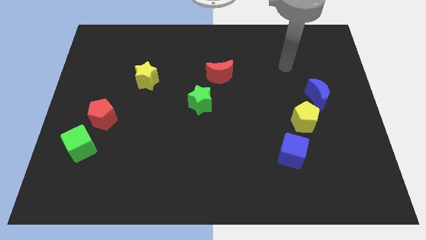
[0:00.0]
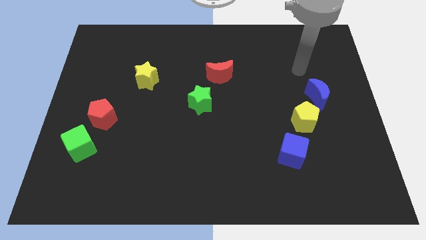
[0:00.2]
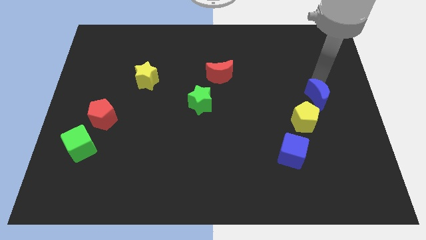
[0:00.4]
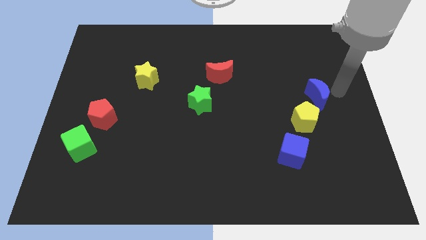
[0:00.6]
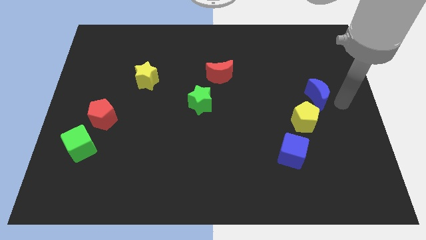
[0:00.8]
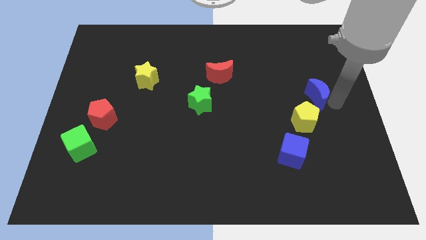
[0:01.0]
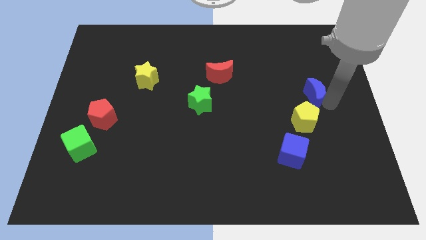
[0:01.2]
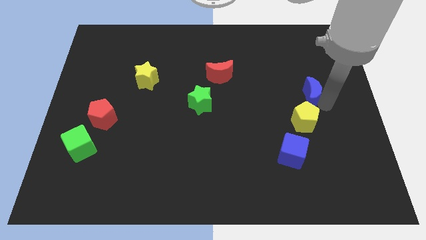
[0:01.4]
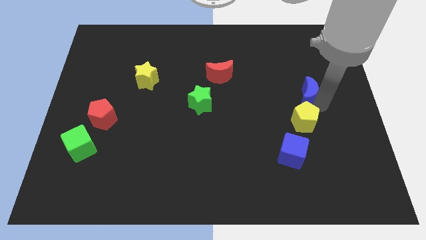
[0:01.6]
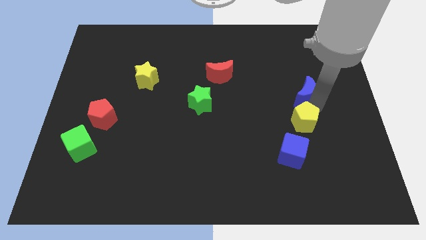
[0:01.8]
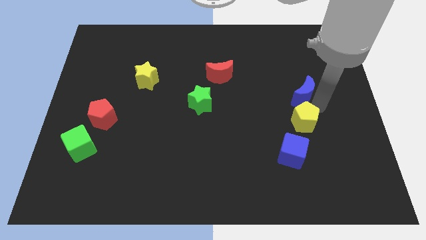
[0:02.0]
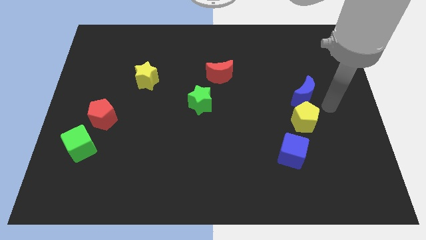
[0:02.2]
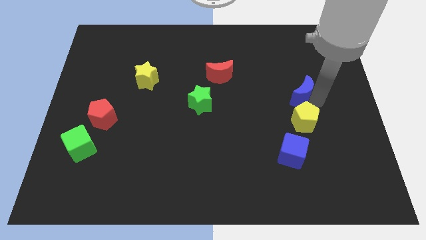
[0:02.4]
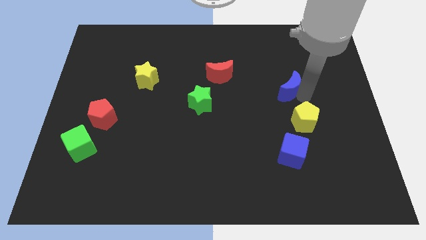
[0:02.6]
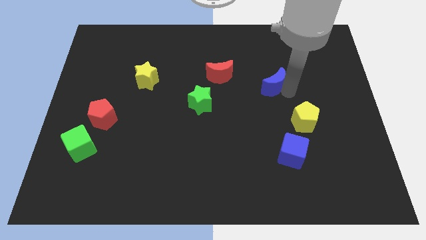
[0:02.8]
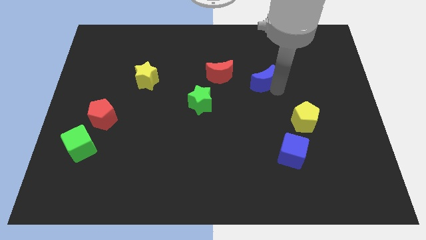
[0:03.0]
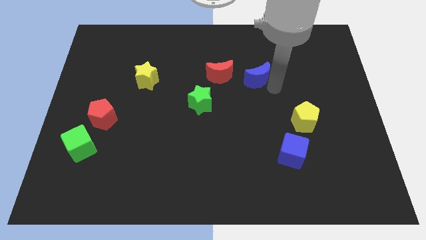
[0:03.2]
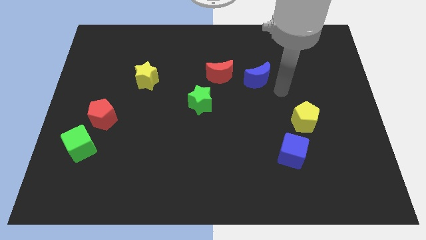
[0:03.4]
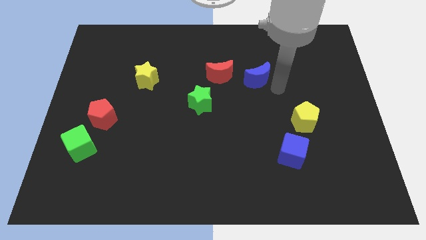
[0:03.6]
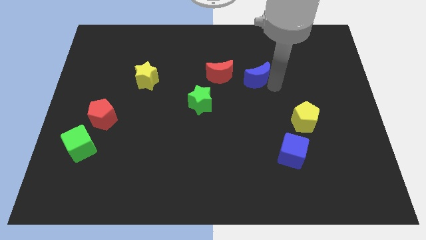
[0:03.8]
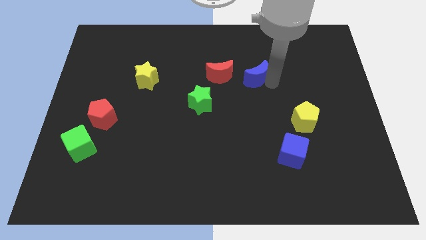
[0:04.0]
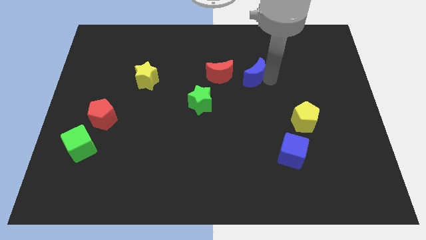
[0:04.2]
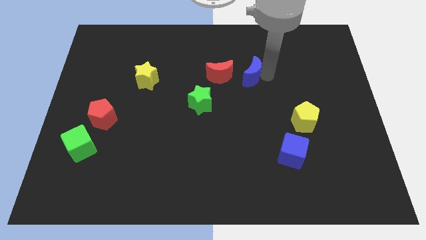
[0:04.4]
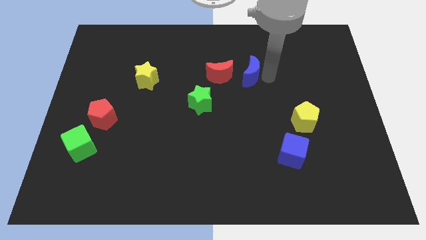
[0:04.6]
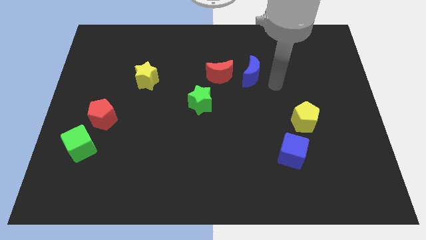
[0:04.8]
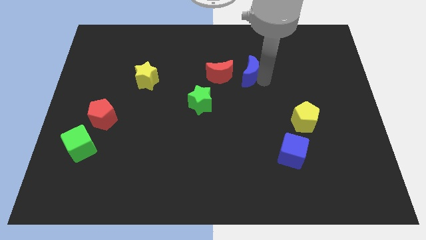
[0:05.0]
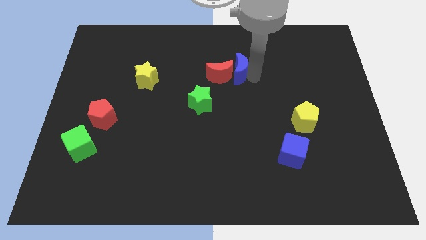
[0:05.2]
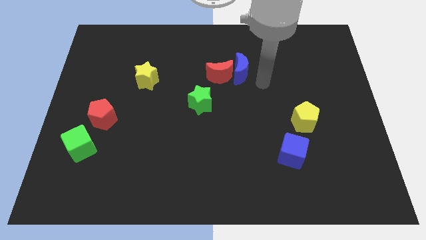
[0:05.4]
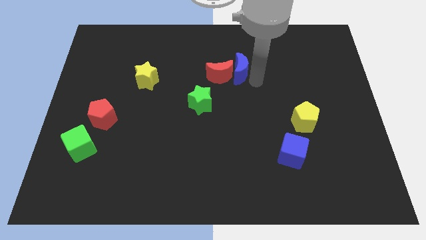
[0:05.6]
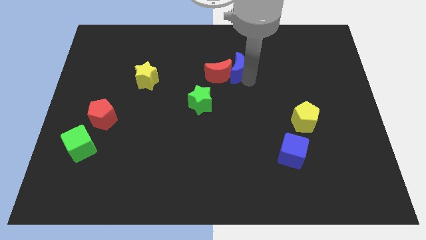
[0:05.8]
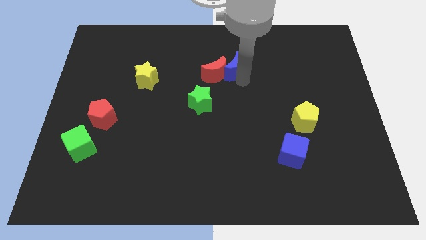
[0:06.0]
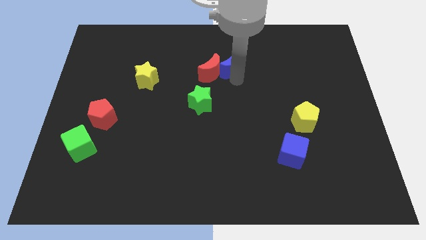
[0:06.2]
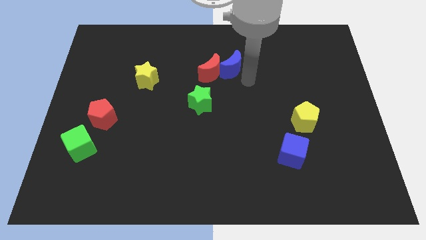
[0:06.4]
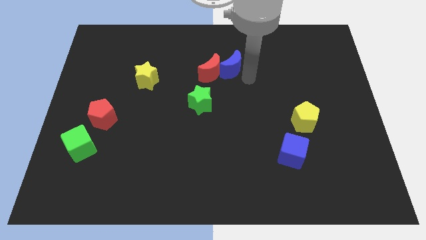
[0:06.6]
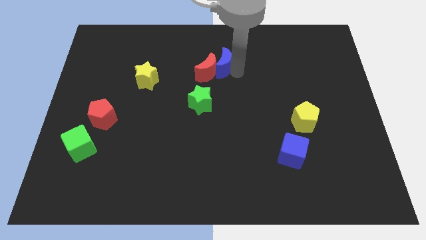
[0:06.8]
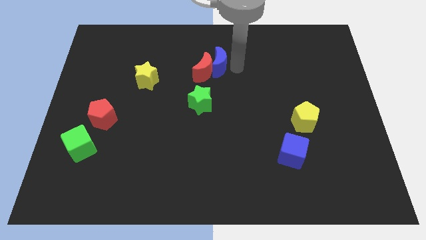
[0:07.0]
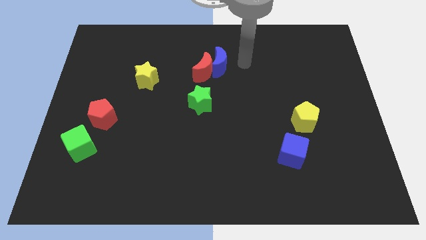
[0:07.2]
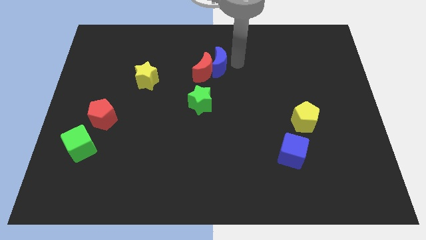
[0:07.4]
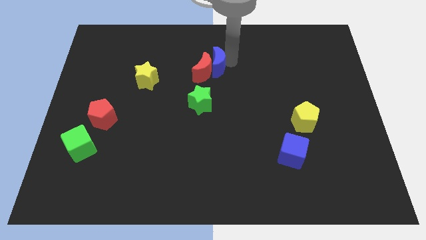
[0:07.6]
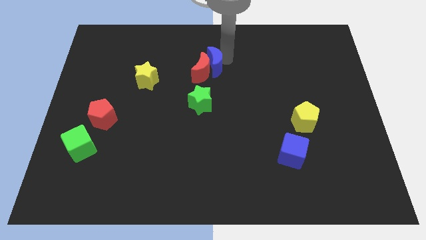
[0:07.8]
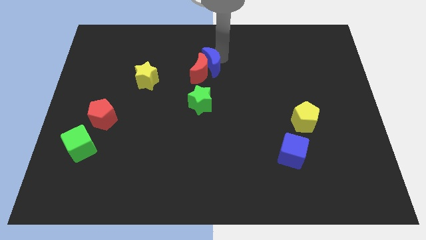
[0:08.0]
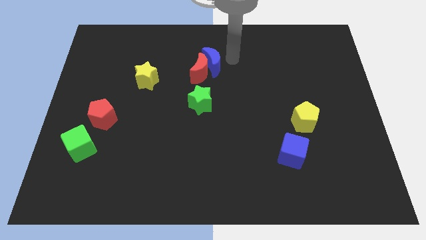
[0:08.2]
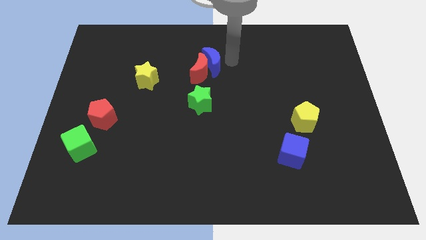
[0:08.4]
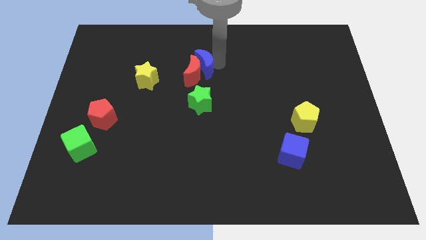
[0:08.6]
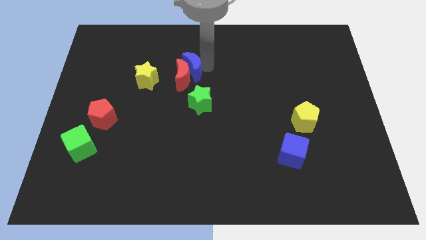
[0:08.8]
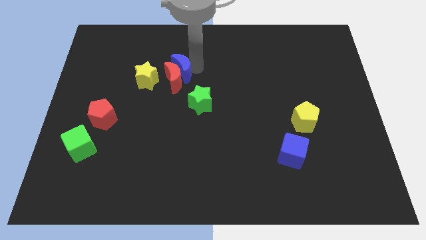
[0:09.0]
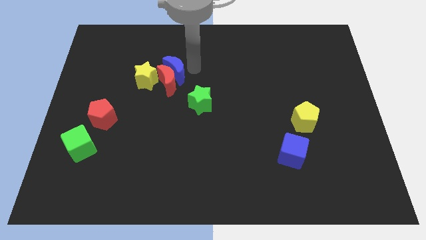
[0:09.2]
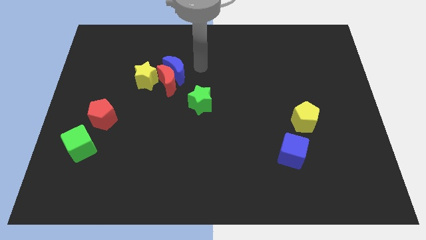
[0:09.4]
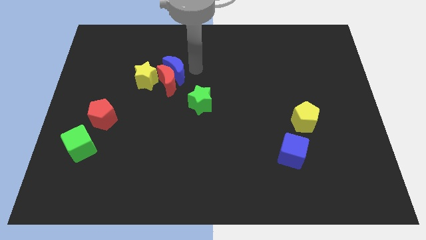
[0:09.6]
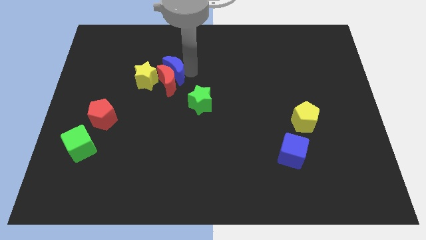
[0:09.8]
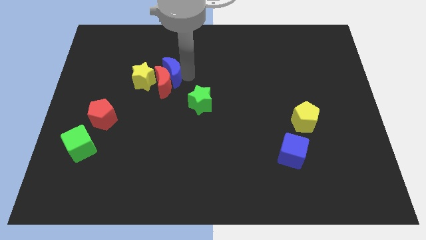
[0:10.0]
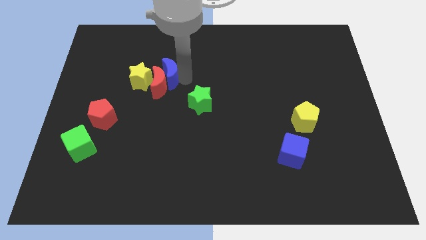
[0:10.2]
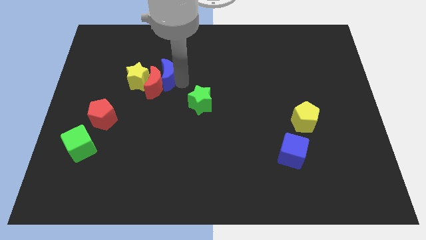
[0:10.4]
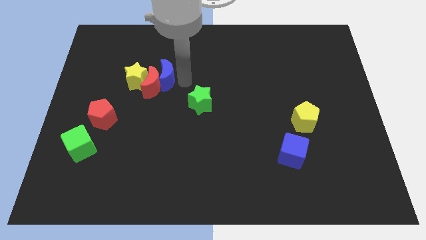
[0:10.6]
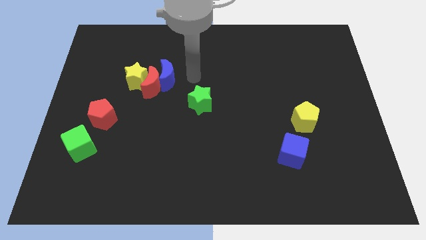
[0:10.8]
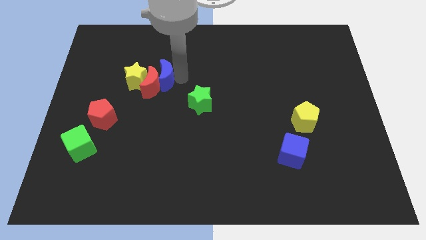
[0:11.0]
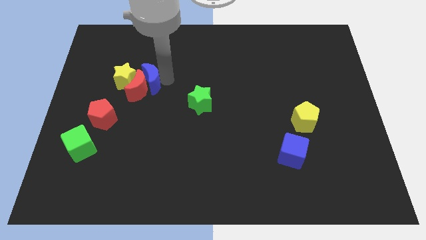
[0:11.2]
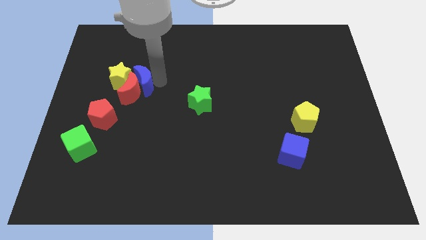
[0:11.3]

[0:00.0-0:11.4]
push the blue moon close to the yellow star

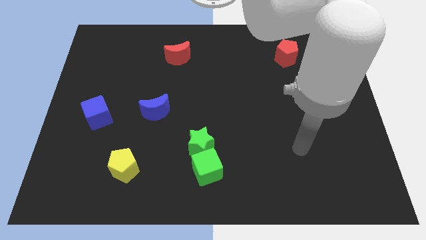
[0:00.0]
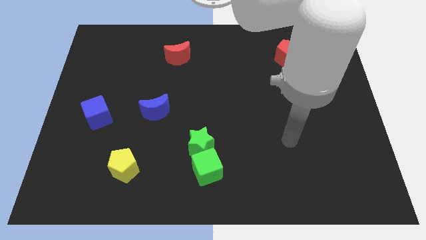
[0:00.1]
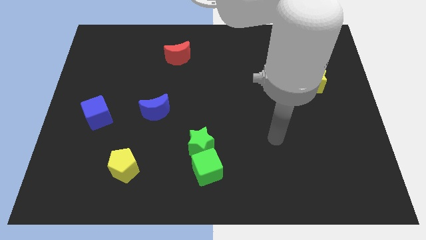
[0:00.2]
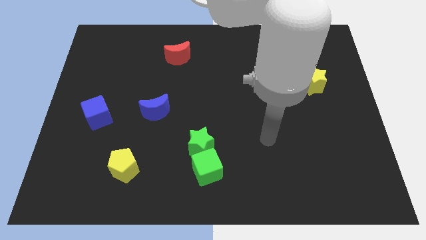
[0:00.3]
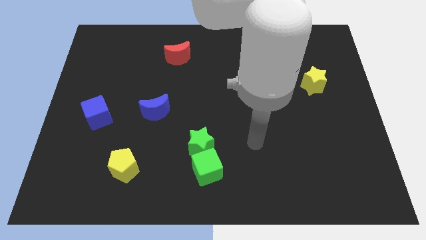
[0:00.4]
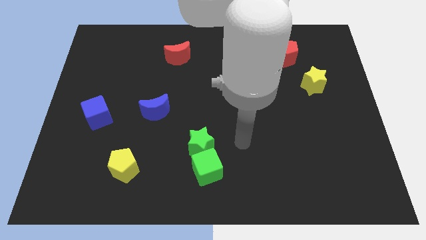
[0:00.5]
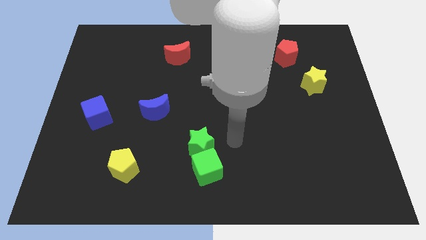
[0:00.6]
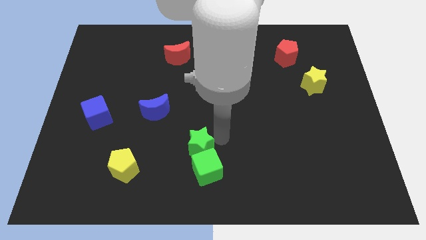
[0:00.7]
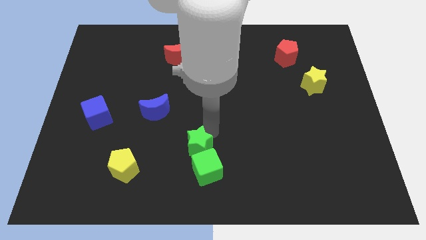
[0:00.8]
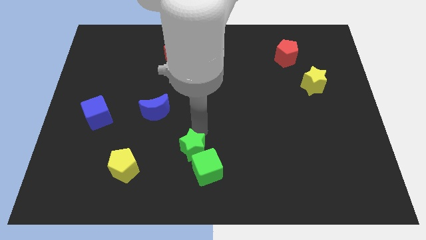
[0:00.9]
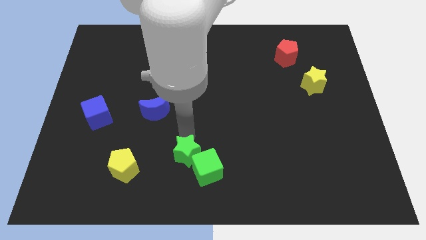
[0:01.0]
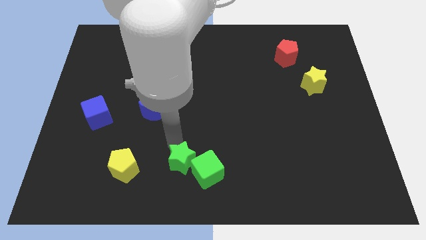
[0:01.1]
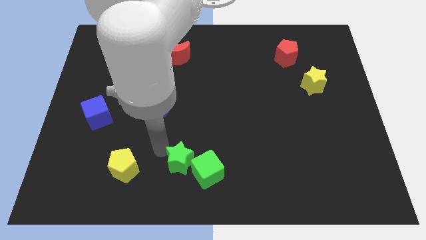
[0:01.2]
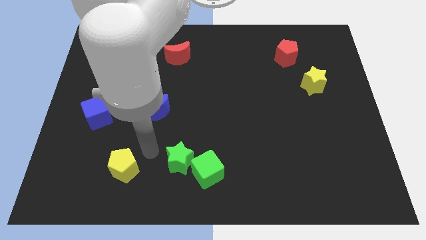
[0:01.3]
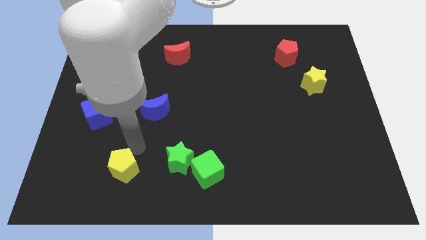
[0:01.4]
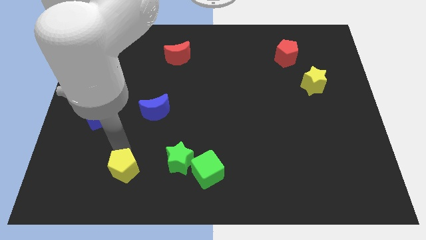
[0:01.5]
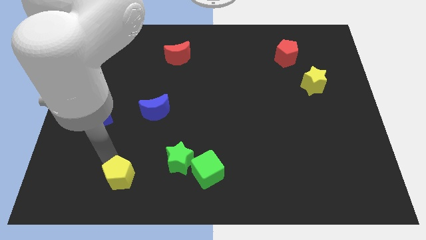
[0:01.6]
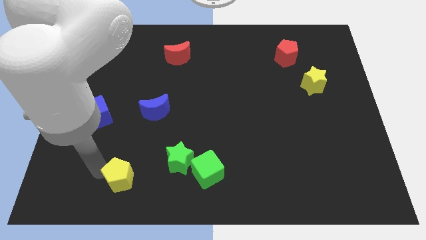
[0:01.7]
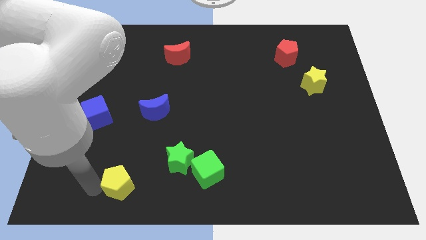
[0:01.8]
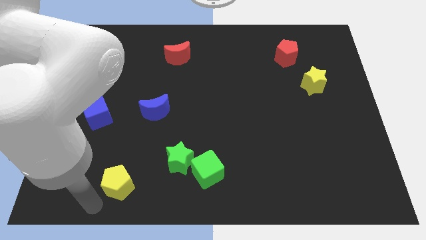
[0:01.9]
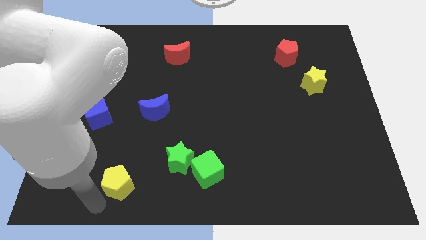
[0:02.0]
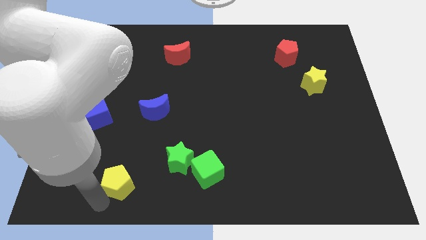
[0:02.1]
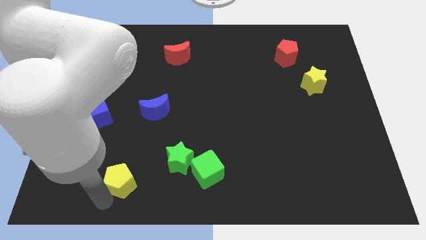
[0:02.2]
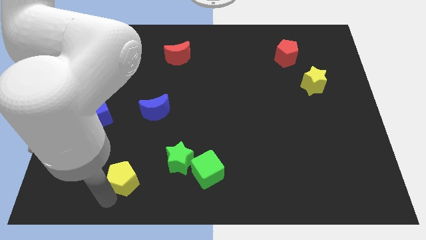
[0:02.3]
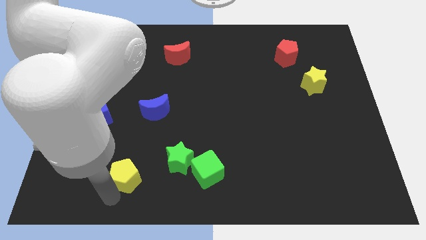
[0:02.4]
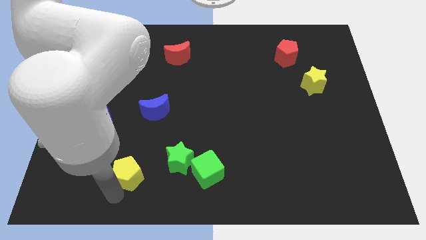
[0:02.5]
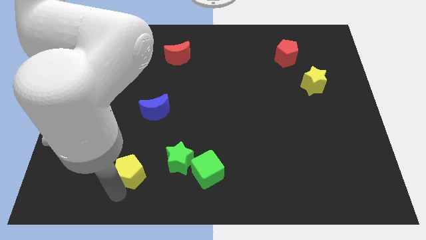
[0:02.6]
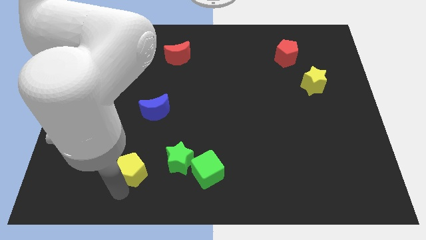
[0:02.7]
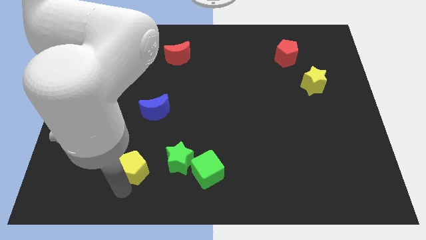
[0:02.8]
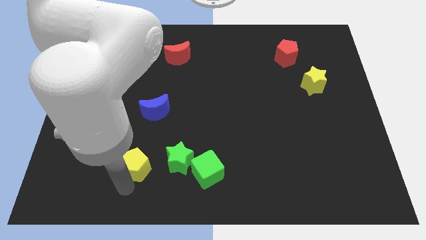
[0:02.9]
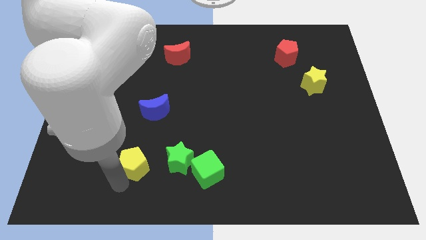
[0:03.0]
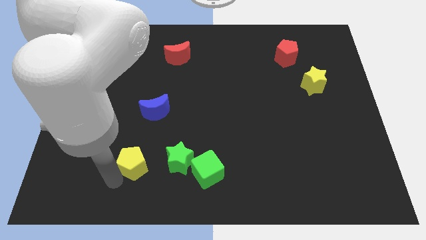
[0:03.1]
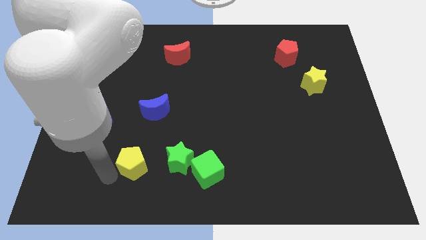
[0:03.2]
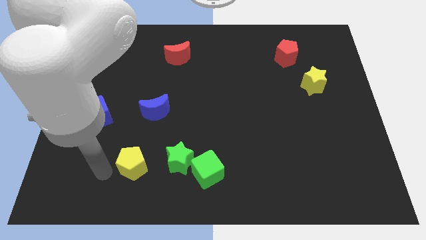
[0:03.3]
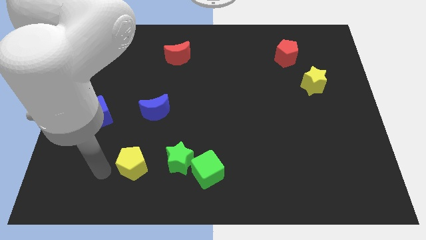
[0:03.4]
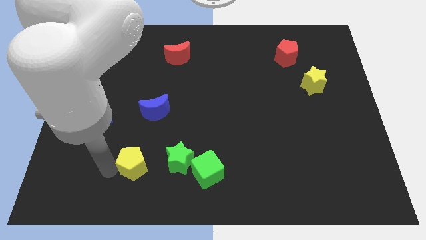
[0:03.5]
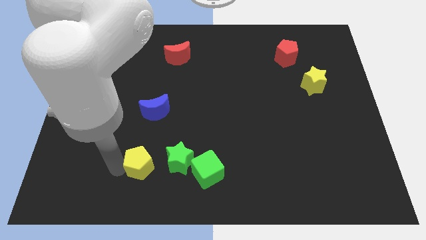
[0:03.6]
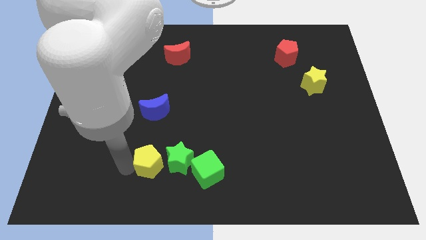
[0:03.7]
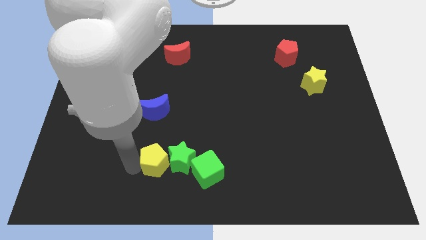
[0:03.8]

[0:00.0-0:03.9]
put the yellow pentagon close to the green star
